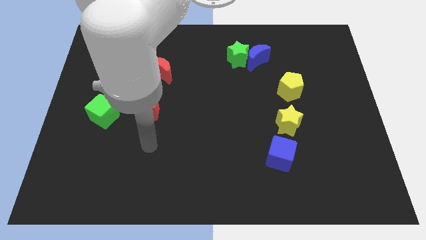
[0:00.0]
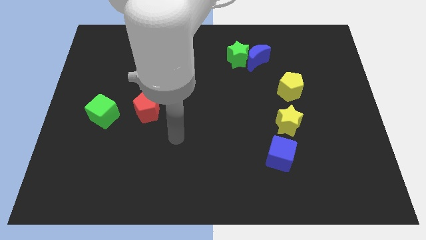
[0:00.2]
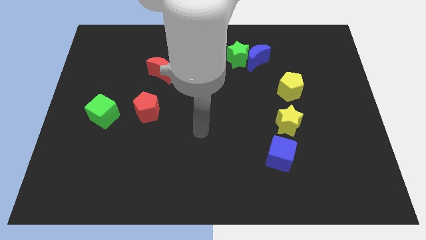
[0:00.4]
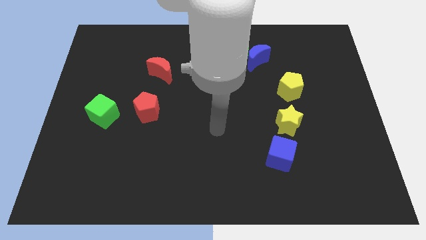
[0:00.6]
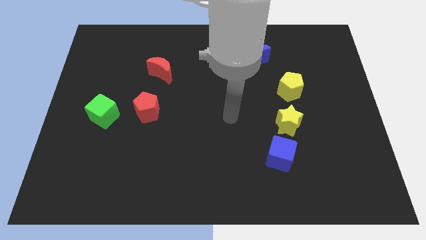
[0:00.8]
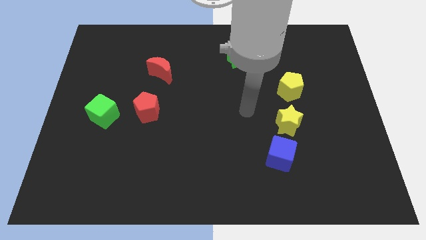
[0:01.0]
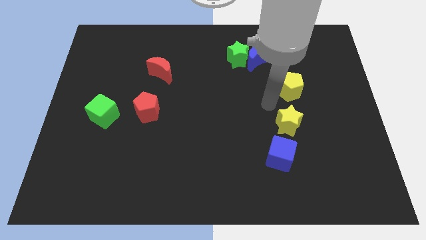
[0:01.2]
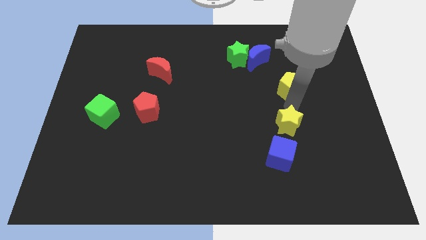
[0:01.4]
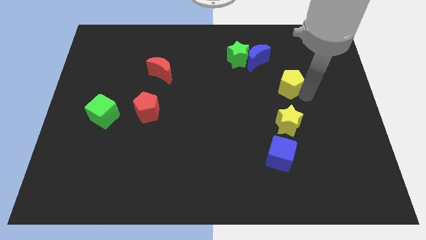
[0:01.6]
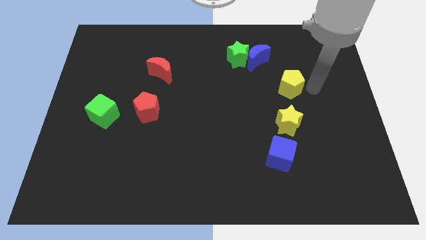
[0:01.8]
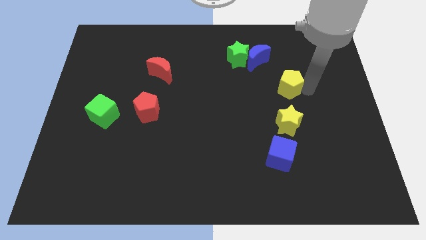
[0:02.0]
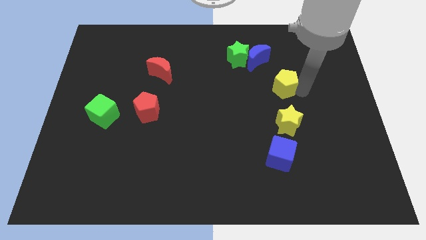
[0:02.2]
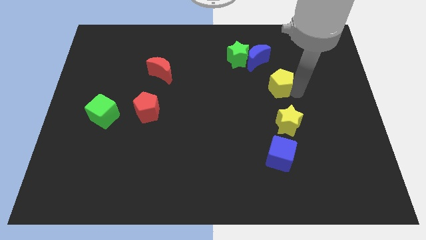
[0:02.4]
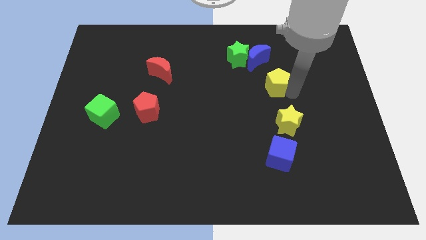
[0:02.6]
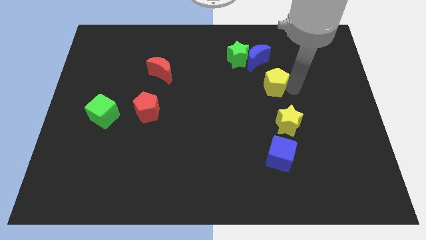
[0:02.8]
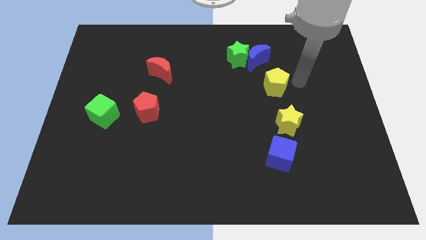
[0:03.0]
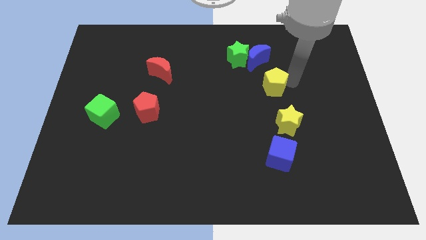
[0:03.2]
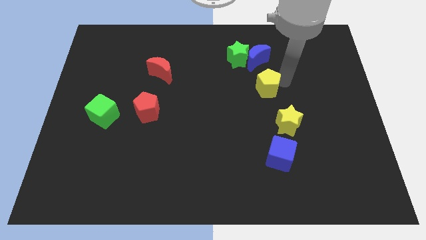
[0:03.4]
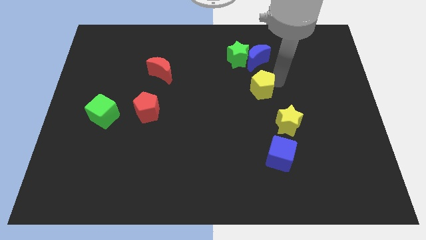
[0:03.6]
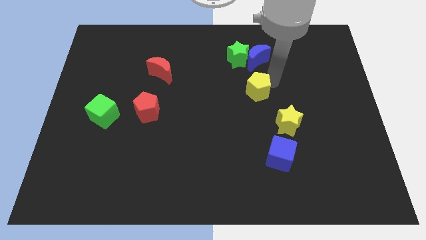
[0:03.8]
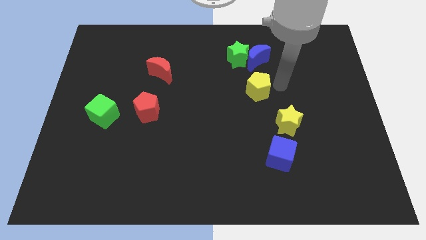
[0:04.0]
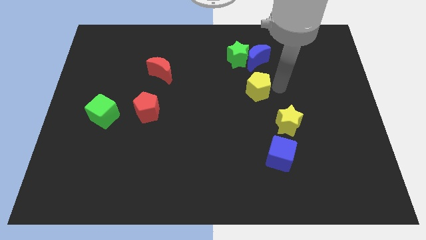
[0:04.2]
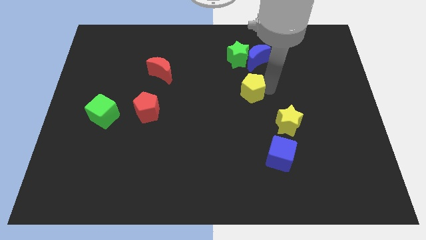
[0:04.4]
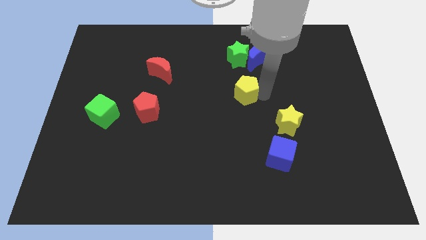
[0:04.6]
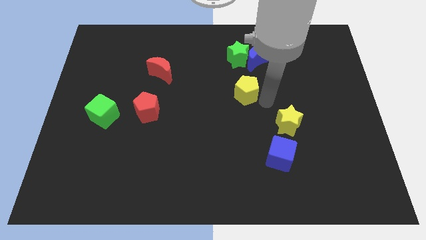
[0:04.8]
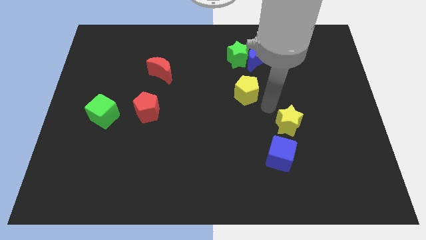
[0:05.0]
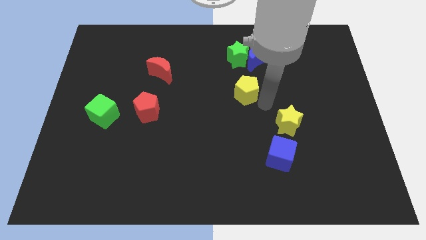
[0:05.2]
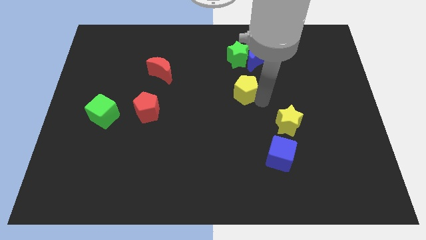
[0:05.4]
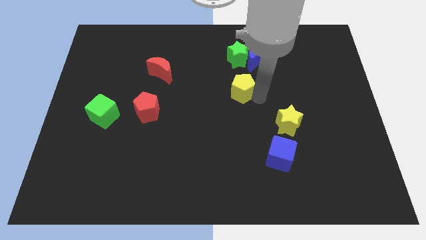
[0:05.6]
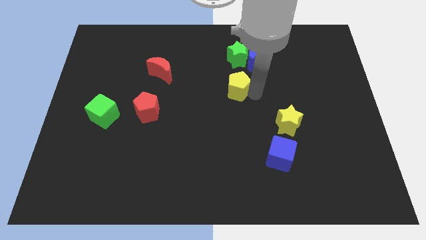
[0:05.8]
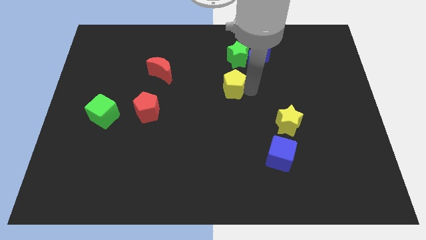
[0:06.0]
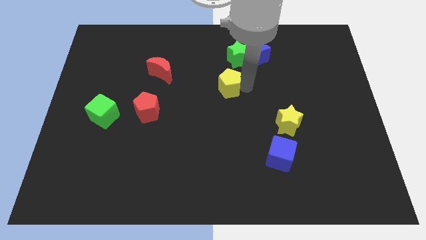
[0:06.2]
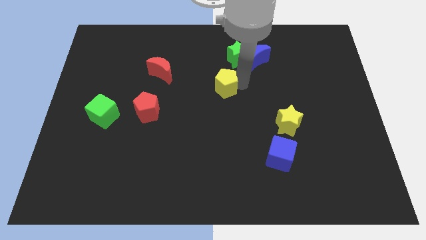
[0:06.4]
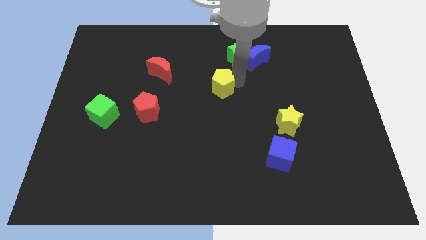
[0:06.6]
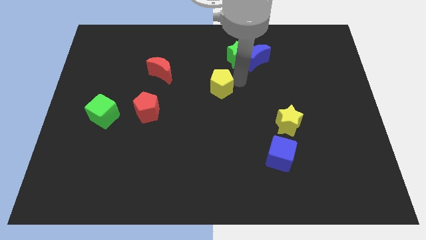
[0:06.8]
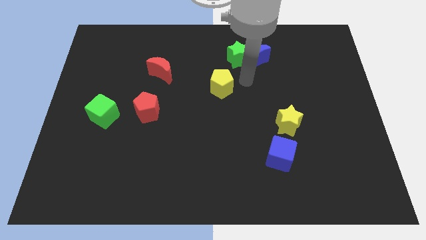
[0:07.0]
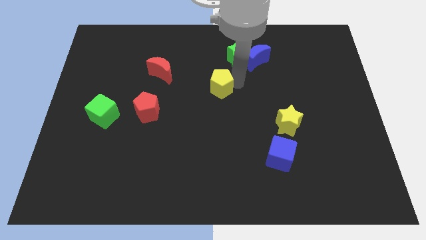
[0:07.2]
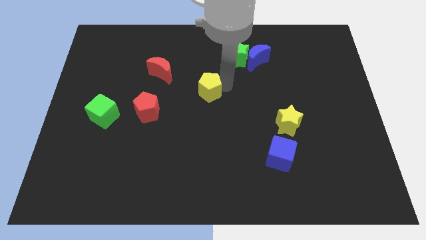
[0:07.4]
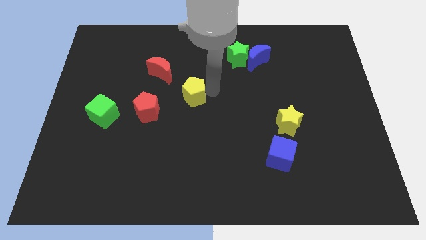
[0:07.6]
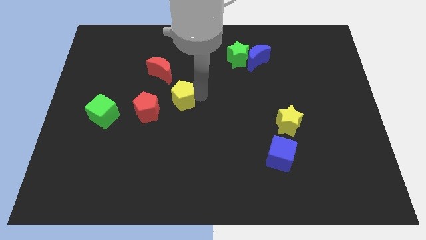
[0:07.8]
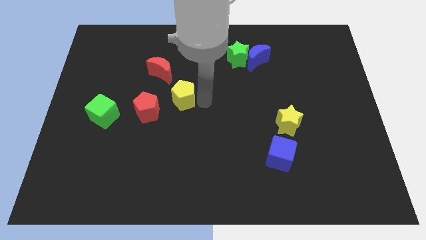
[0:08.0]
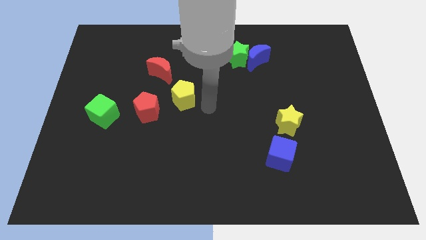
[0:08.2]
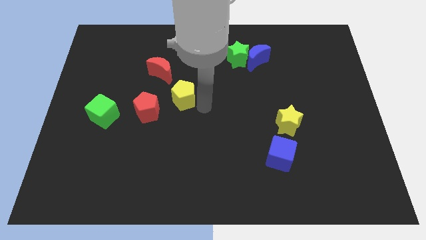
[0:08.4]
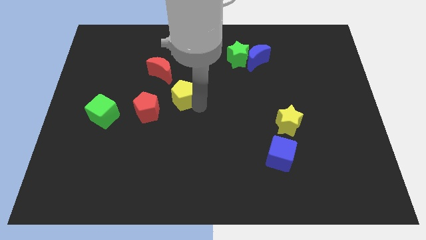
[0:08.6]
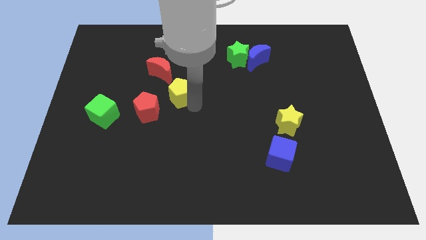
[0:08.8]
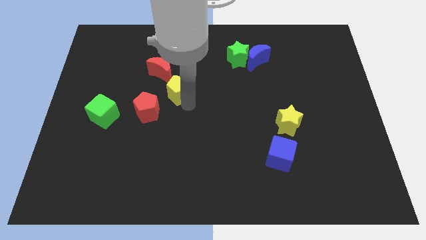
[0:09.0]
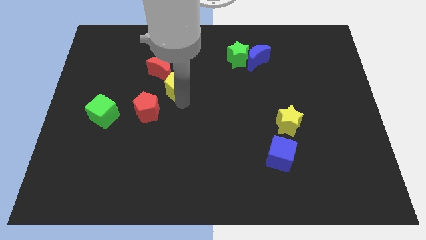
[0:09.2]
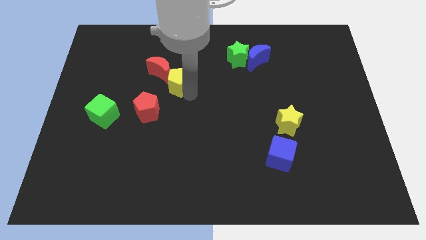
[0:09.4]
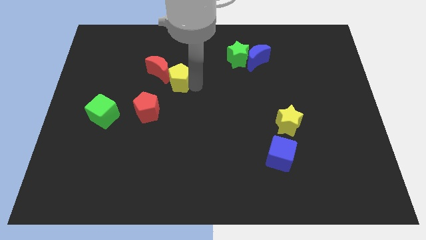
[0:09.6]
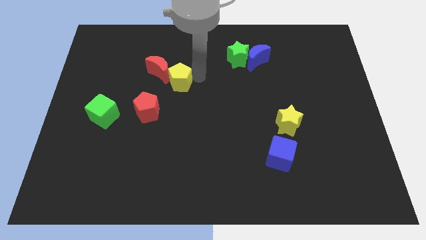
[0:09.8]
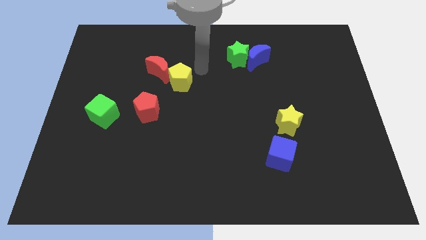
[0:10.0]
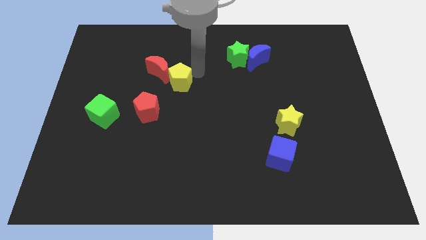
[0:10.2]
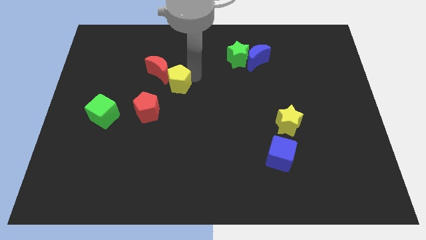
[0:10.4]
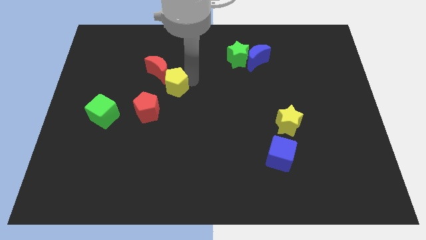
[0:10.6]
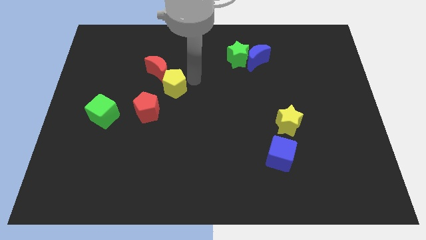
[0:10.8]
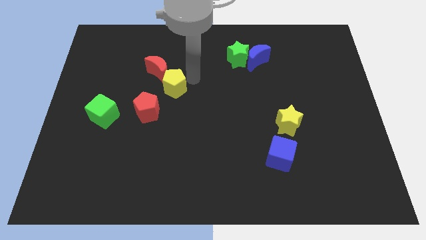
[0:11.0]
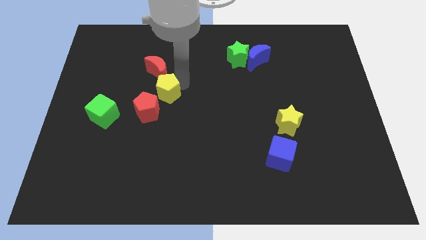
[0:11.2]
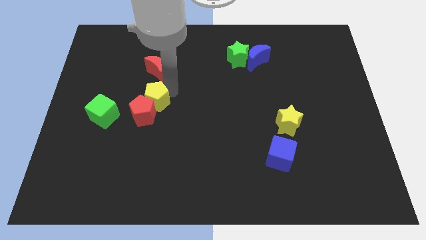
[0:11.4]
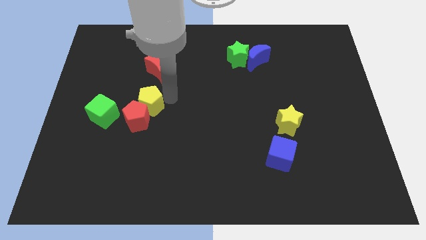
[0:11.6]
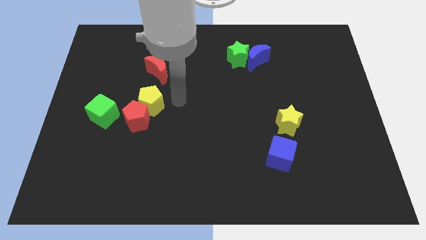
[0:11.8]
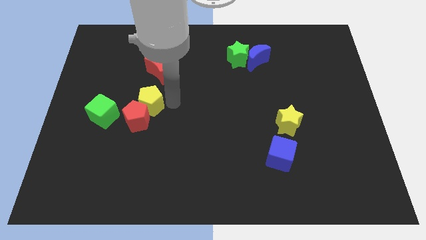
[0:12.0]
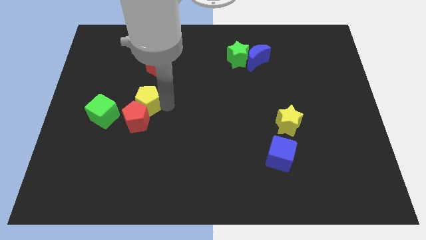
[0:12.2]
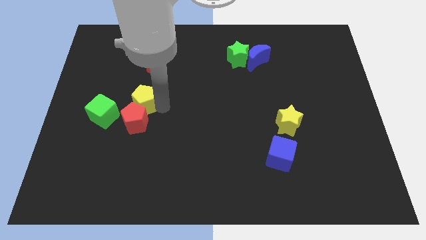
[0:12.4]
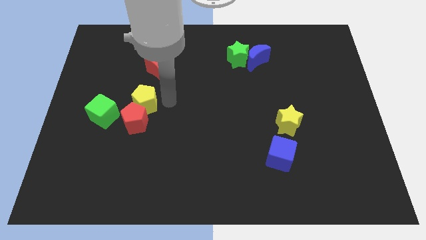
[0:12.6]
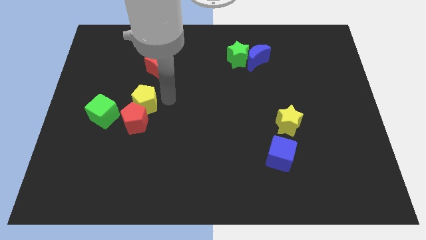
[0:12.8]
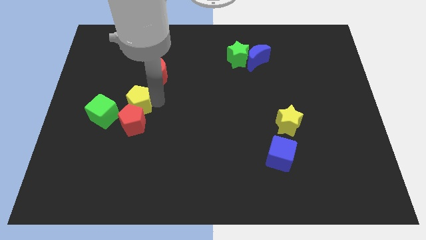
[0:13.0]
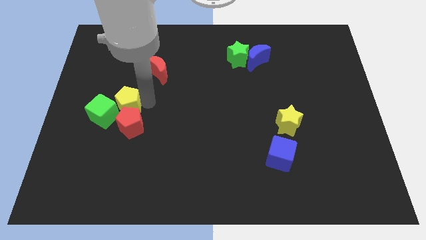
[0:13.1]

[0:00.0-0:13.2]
push the yellow pentagon next to the green cube
